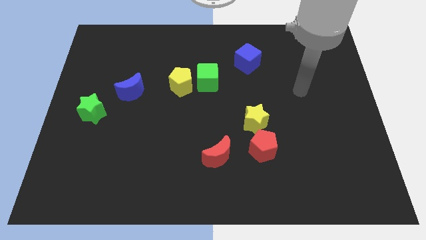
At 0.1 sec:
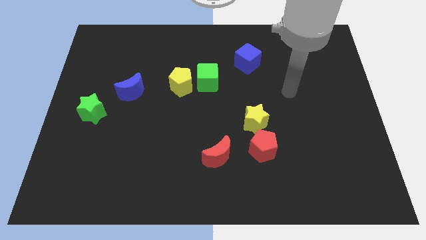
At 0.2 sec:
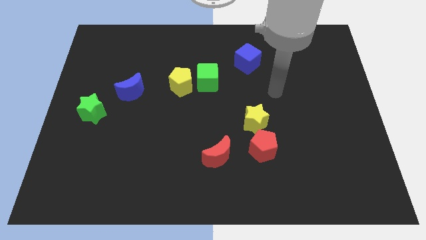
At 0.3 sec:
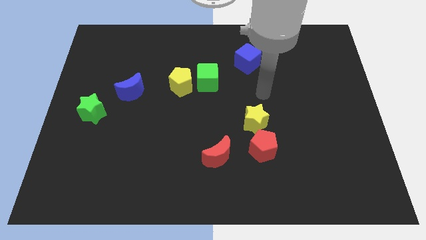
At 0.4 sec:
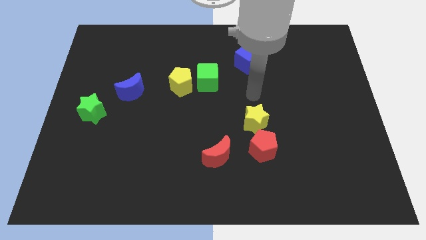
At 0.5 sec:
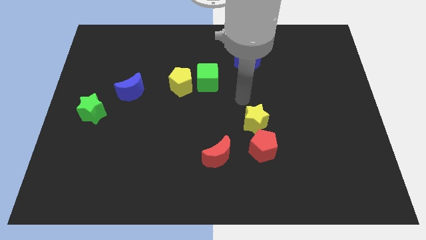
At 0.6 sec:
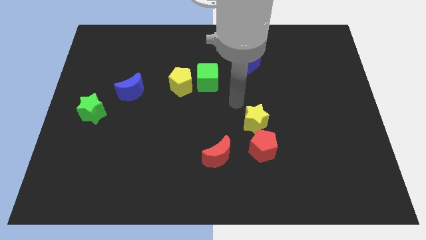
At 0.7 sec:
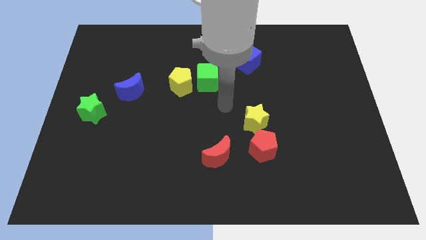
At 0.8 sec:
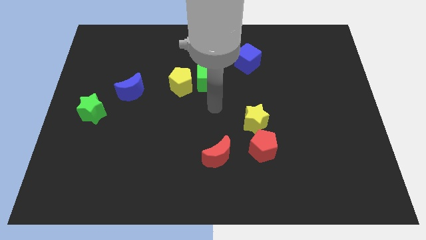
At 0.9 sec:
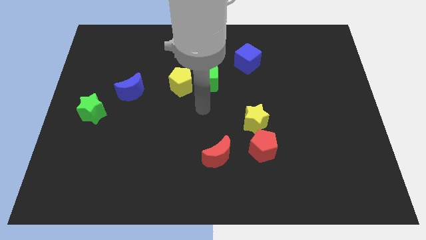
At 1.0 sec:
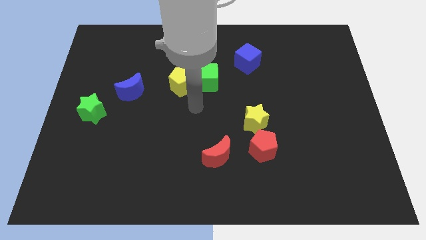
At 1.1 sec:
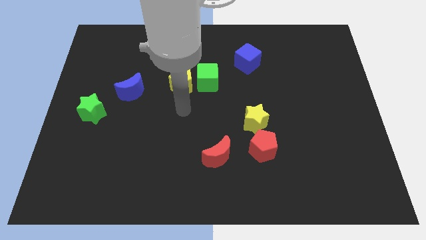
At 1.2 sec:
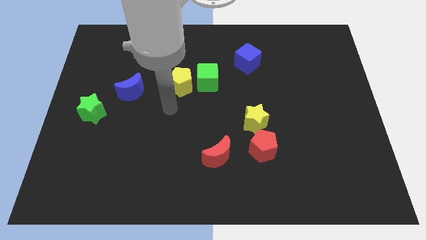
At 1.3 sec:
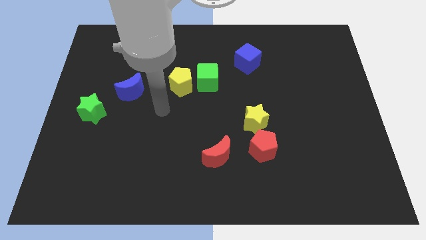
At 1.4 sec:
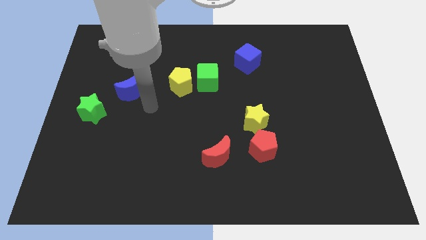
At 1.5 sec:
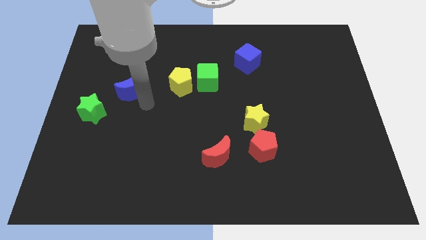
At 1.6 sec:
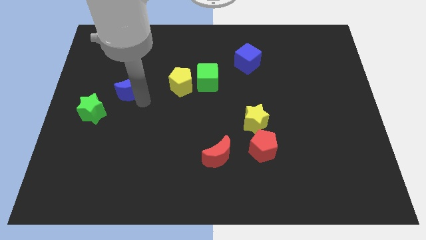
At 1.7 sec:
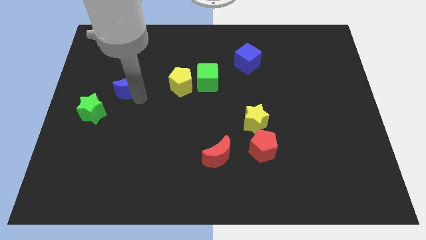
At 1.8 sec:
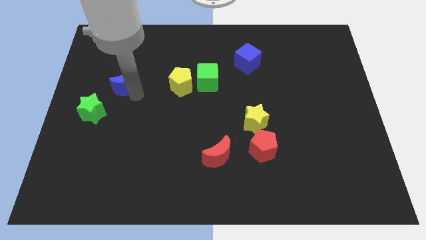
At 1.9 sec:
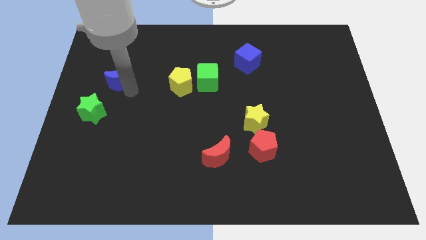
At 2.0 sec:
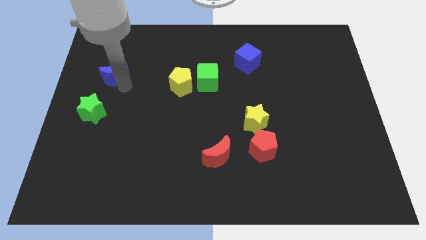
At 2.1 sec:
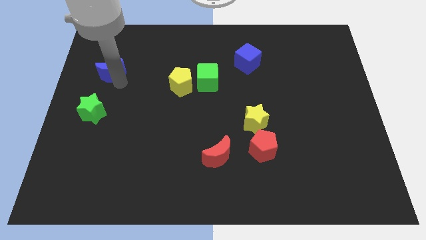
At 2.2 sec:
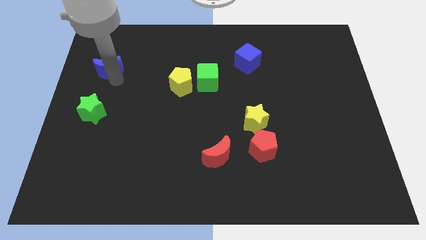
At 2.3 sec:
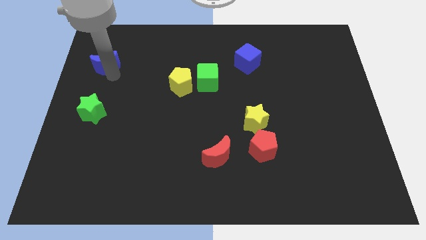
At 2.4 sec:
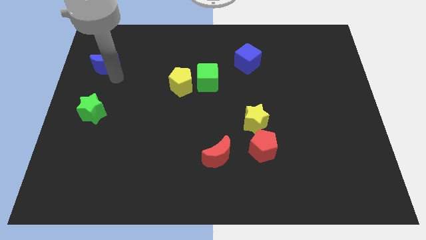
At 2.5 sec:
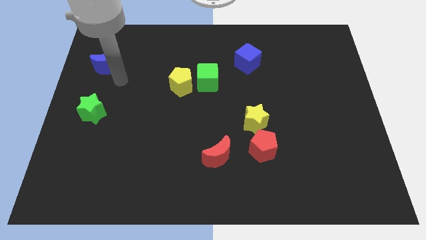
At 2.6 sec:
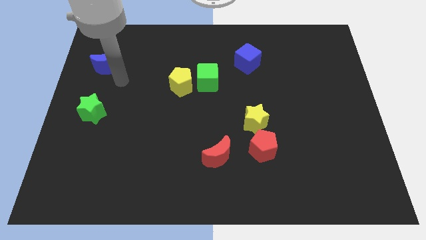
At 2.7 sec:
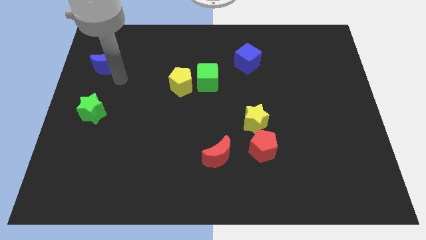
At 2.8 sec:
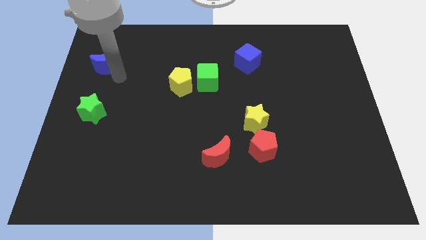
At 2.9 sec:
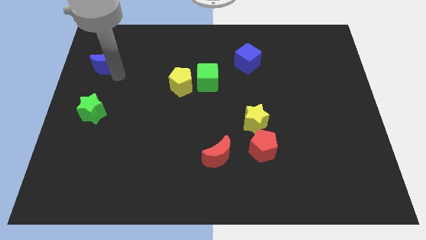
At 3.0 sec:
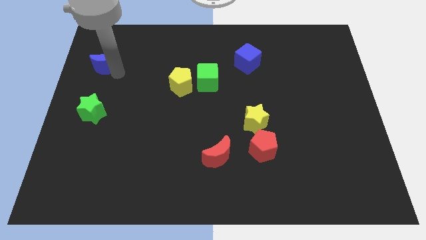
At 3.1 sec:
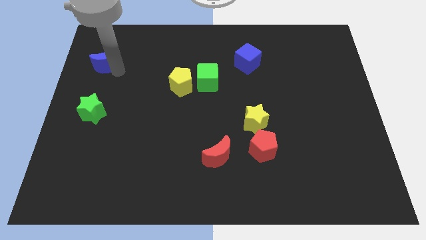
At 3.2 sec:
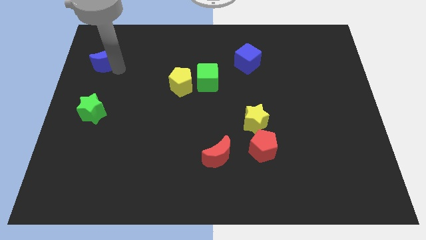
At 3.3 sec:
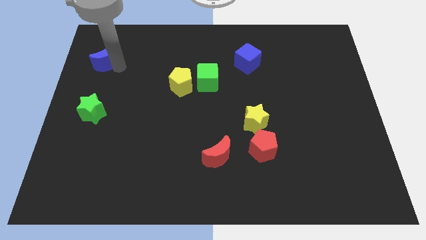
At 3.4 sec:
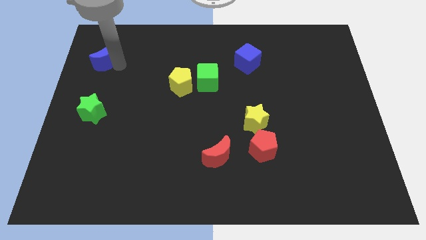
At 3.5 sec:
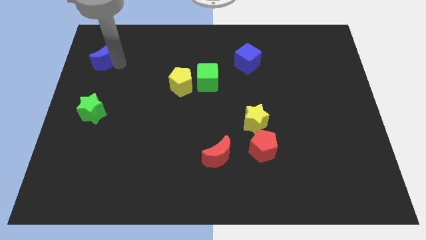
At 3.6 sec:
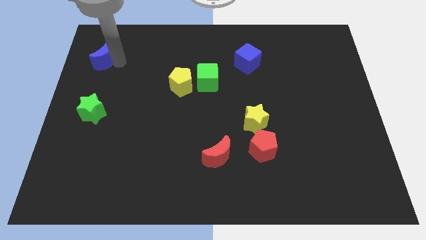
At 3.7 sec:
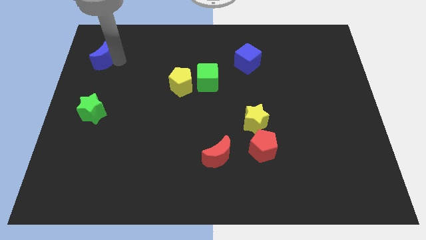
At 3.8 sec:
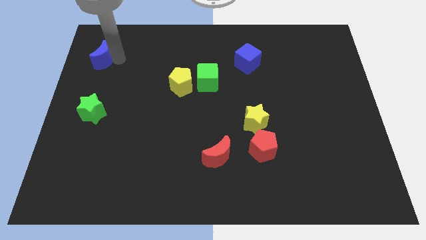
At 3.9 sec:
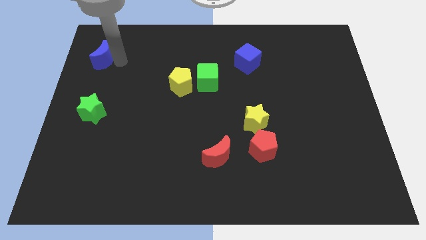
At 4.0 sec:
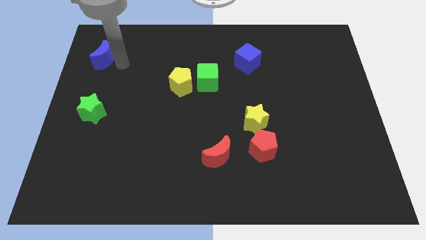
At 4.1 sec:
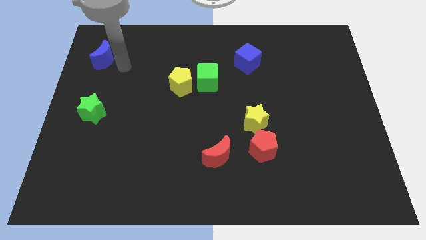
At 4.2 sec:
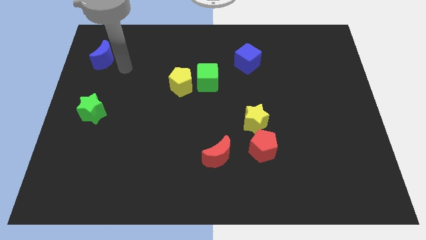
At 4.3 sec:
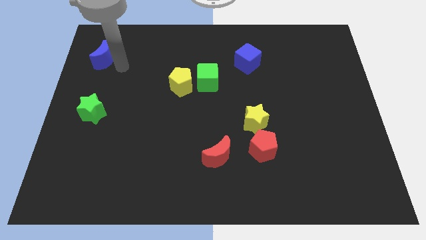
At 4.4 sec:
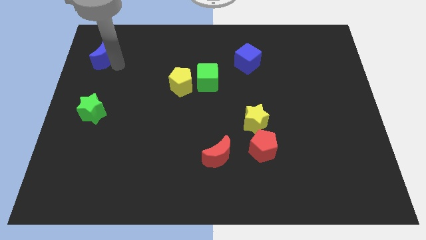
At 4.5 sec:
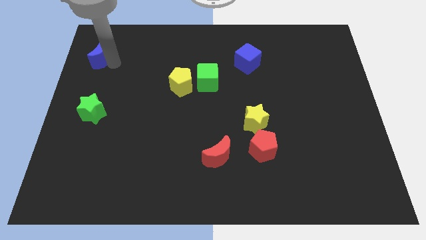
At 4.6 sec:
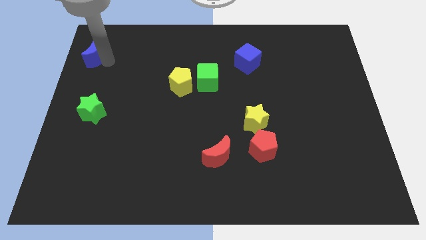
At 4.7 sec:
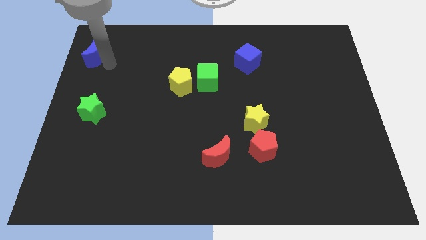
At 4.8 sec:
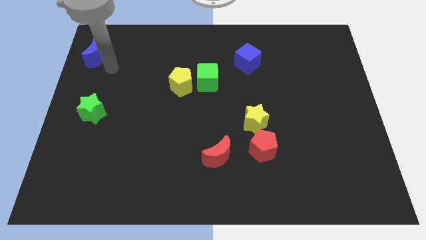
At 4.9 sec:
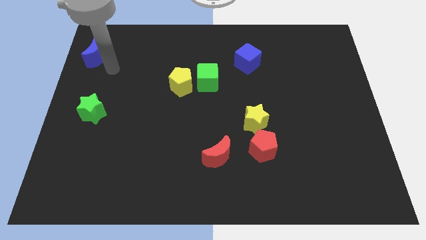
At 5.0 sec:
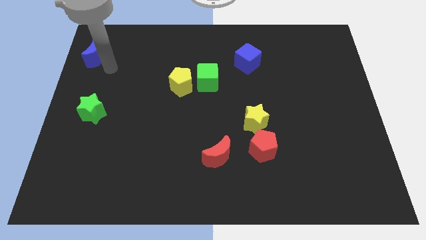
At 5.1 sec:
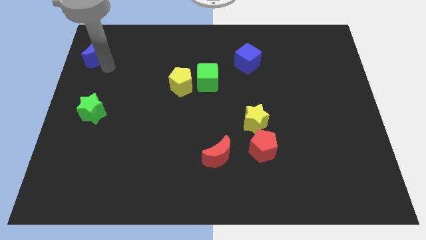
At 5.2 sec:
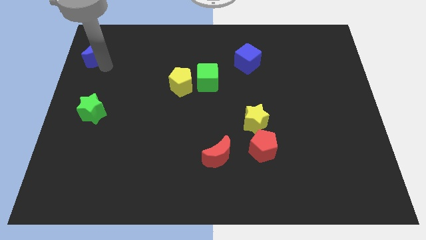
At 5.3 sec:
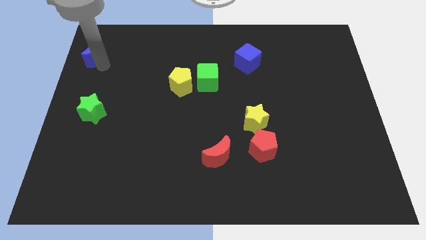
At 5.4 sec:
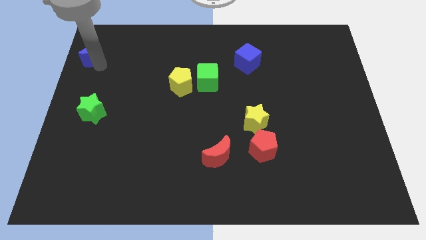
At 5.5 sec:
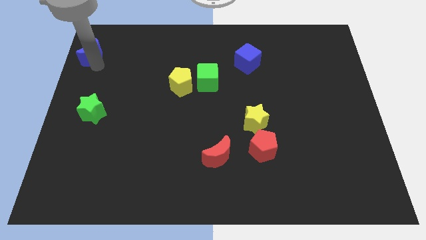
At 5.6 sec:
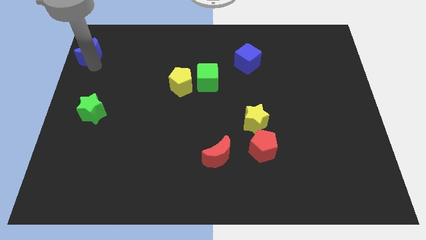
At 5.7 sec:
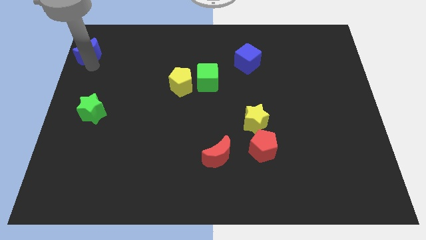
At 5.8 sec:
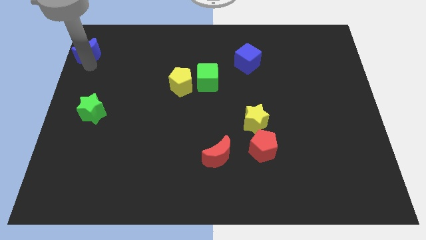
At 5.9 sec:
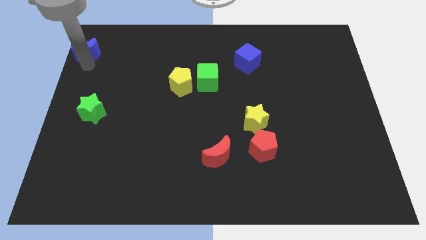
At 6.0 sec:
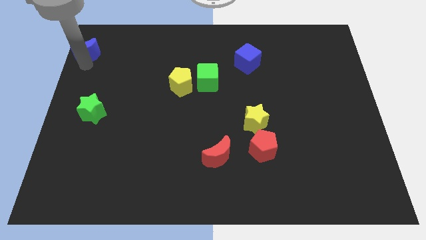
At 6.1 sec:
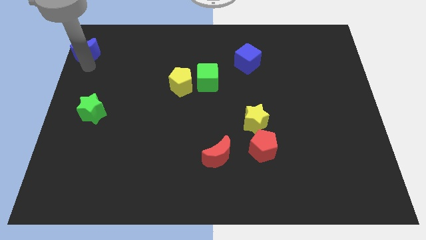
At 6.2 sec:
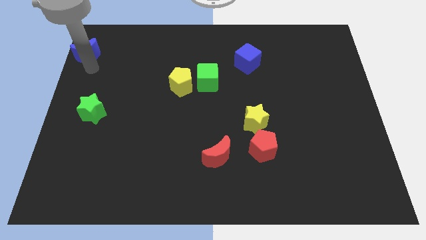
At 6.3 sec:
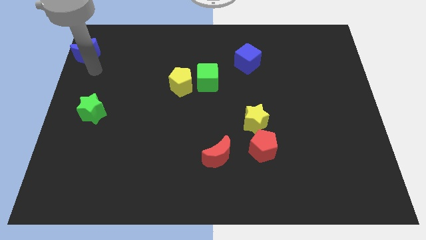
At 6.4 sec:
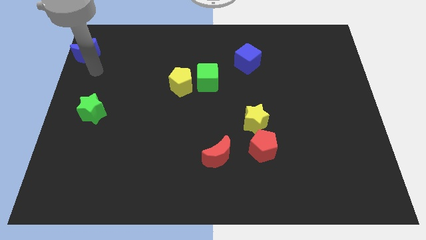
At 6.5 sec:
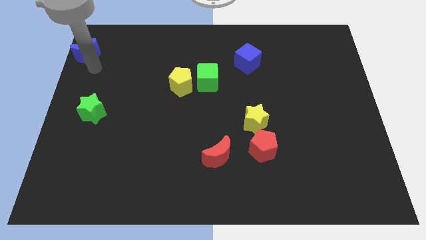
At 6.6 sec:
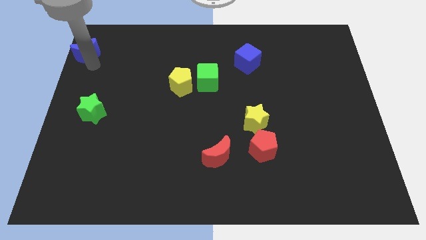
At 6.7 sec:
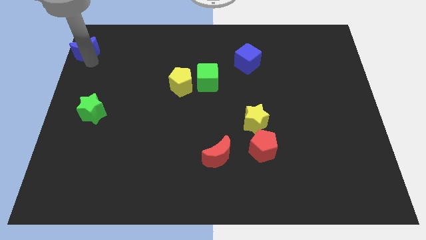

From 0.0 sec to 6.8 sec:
push the blue moon to the top left corner
